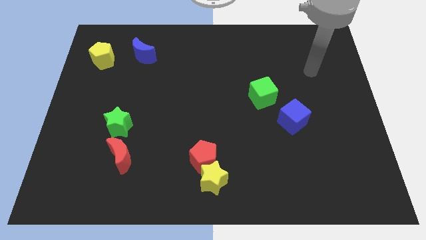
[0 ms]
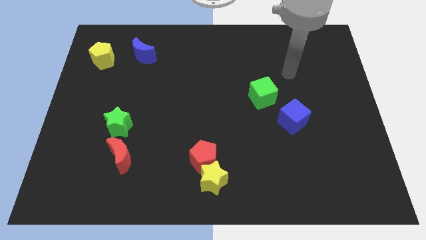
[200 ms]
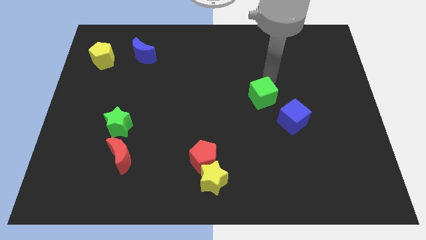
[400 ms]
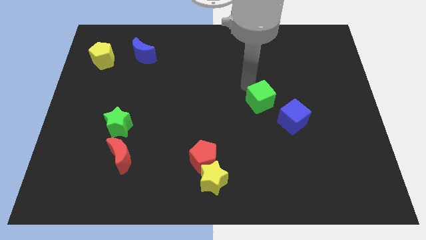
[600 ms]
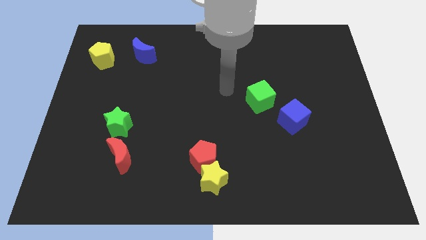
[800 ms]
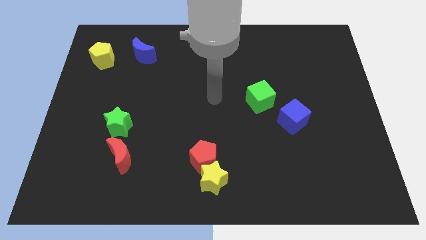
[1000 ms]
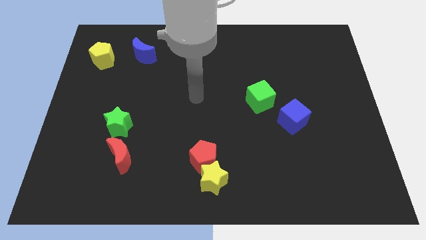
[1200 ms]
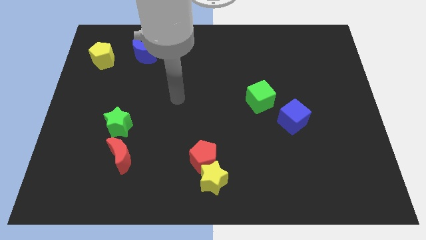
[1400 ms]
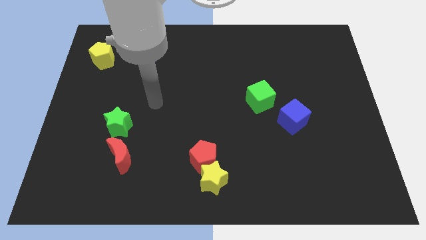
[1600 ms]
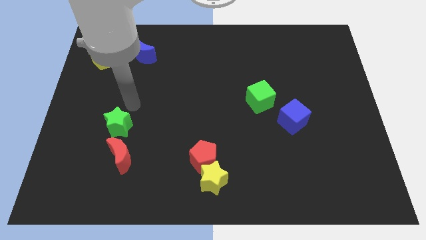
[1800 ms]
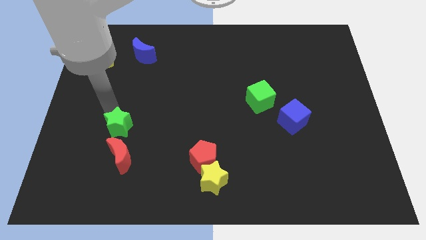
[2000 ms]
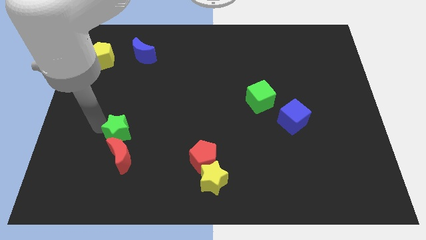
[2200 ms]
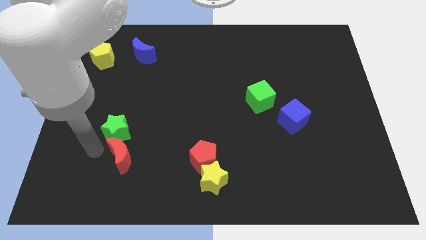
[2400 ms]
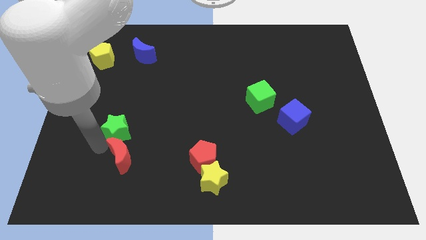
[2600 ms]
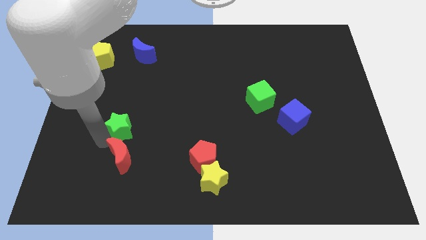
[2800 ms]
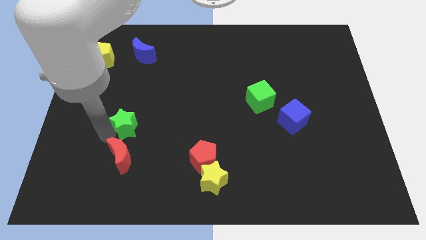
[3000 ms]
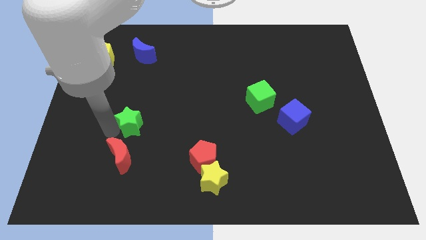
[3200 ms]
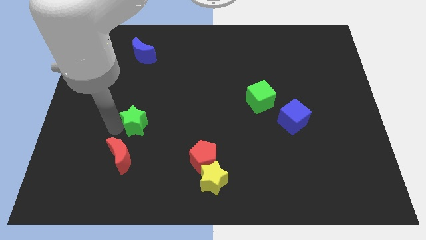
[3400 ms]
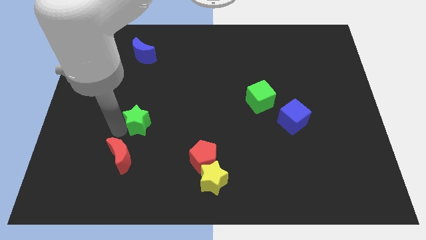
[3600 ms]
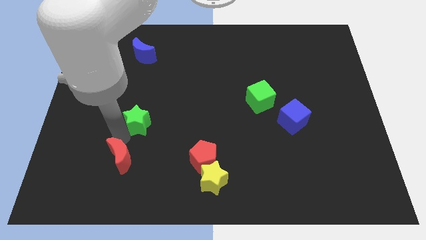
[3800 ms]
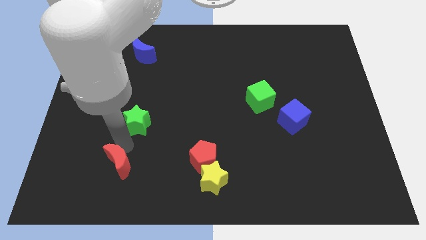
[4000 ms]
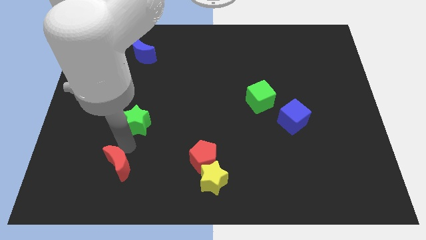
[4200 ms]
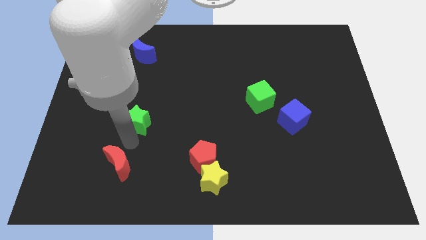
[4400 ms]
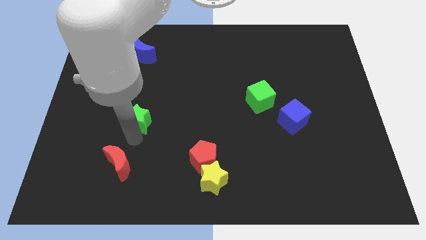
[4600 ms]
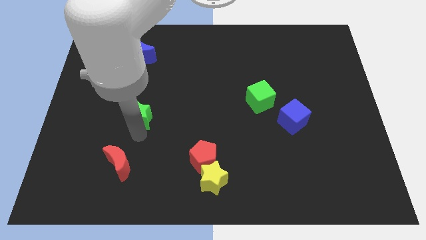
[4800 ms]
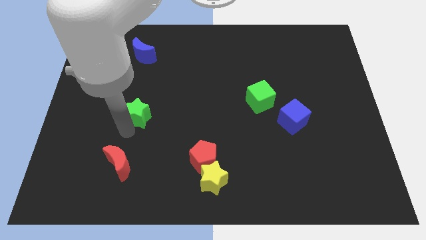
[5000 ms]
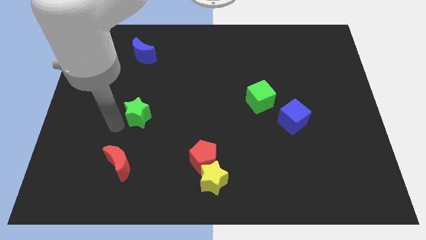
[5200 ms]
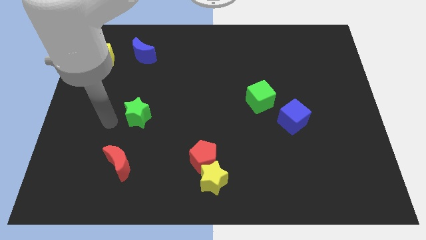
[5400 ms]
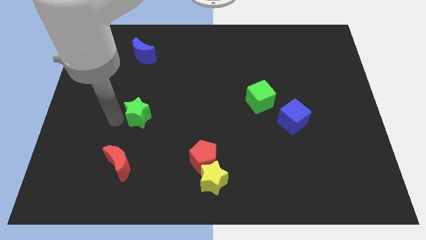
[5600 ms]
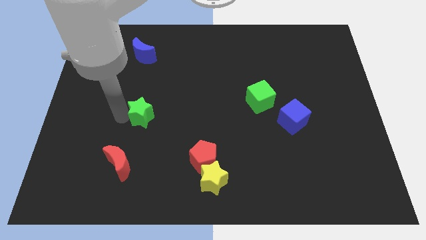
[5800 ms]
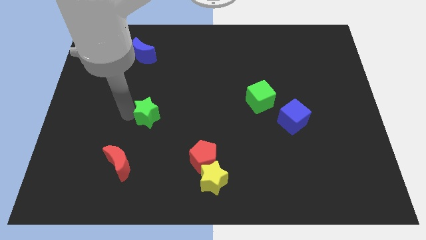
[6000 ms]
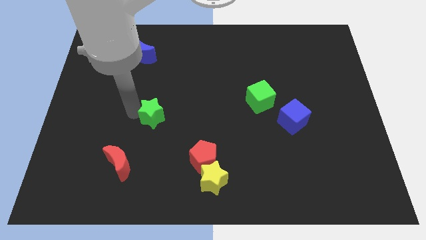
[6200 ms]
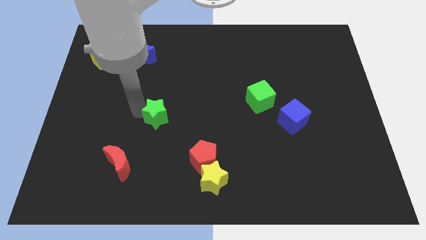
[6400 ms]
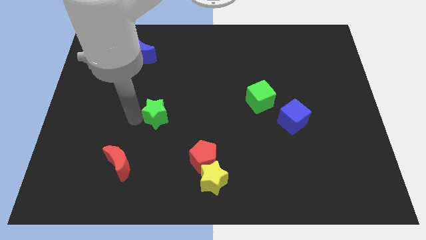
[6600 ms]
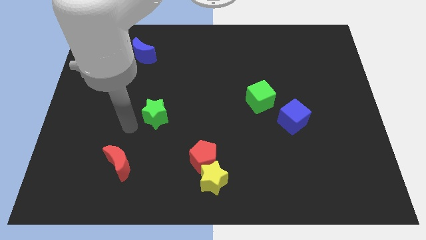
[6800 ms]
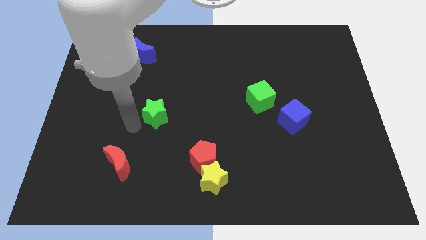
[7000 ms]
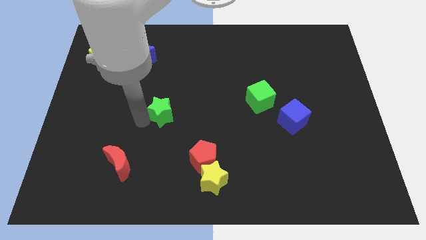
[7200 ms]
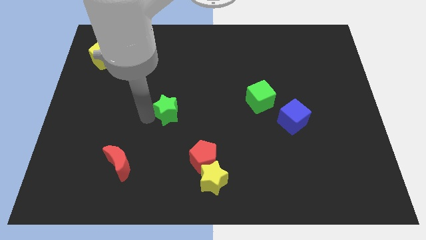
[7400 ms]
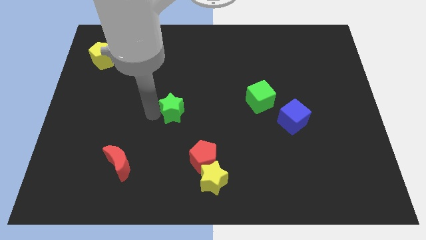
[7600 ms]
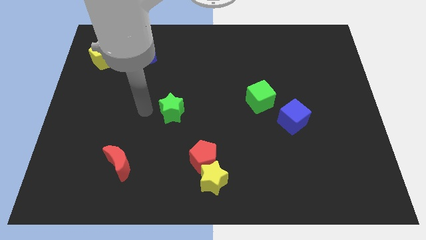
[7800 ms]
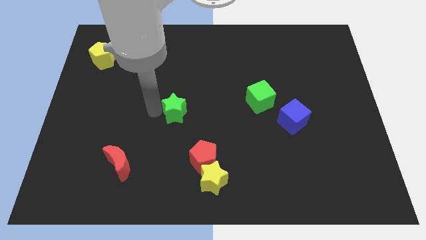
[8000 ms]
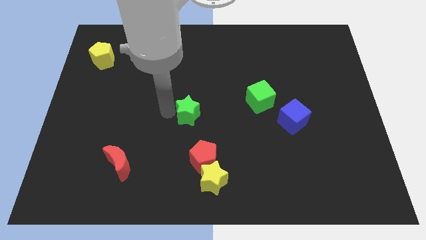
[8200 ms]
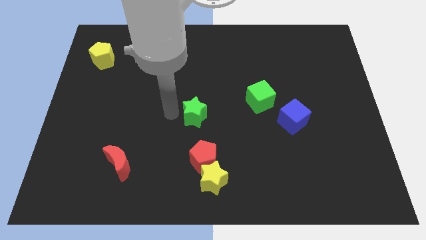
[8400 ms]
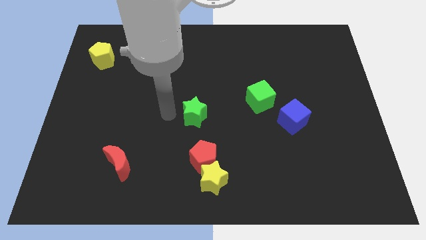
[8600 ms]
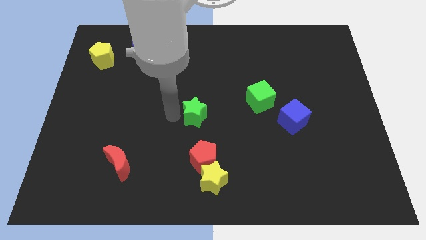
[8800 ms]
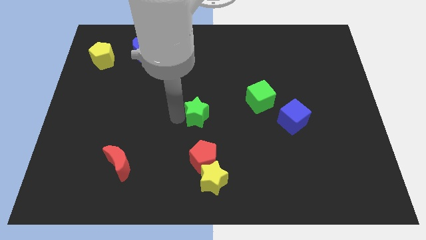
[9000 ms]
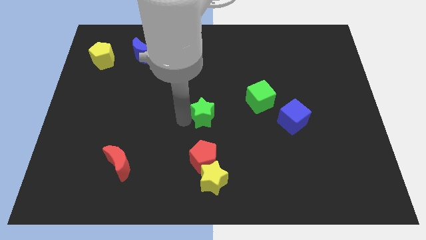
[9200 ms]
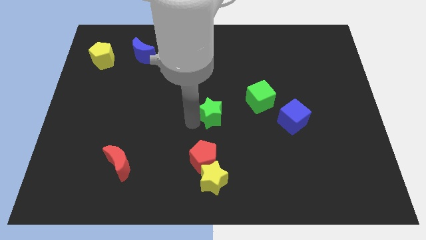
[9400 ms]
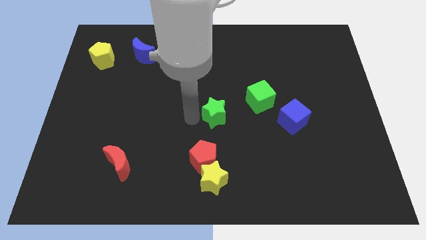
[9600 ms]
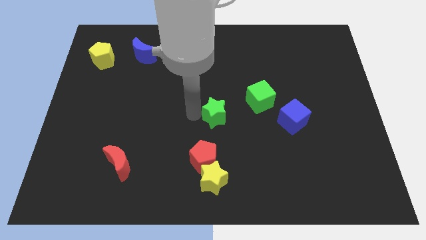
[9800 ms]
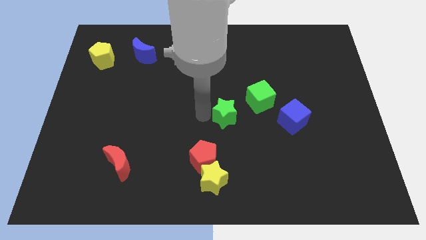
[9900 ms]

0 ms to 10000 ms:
slide the green star to the left of the blue cube

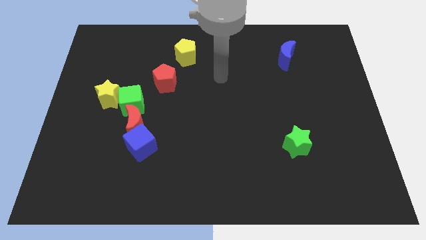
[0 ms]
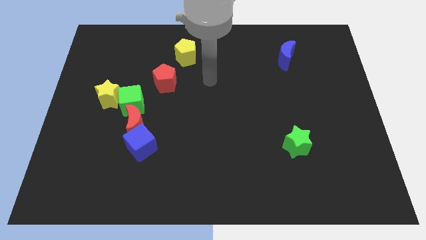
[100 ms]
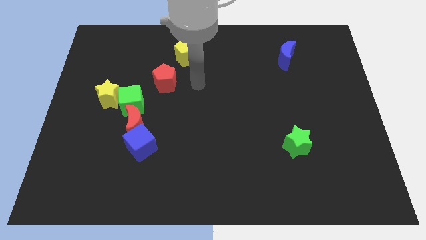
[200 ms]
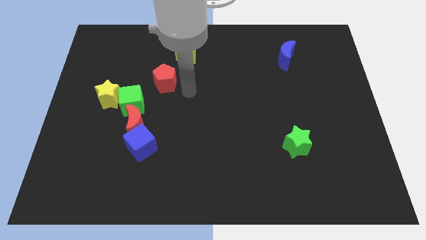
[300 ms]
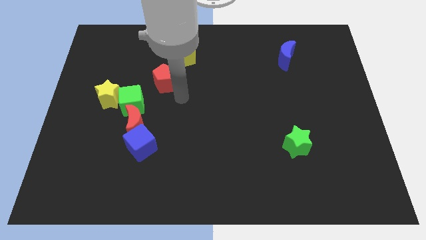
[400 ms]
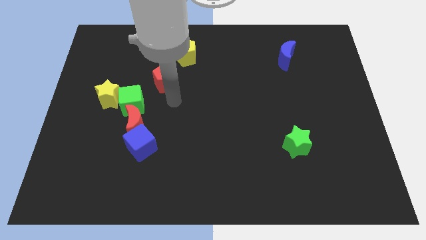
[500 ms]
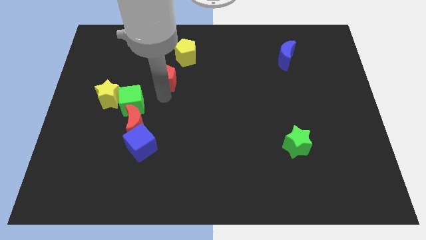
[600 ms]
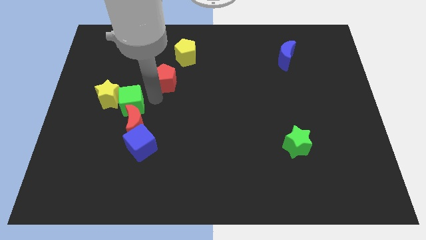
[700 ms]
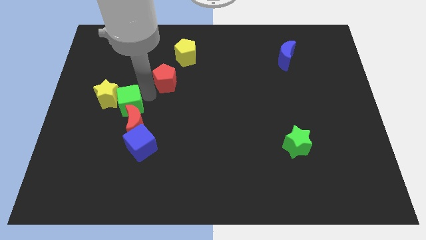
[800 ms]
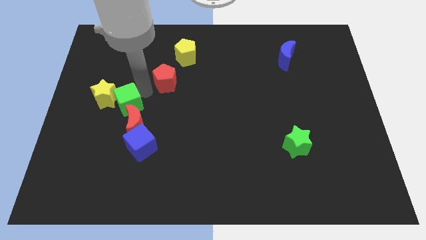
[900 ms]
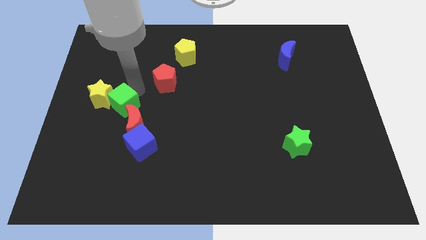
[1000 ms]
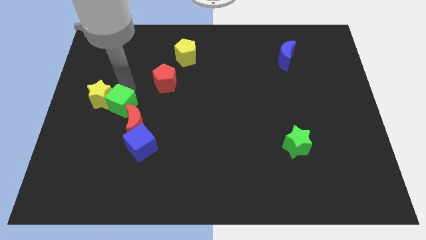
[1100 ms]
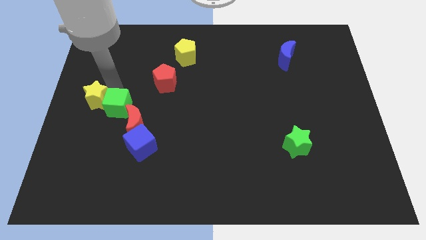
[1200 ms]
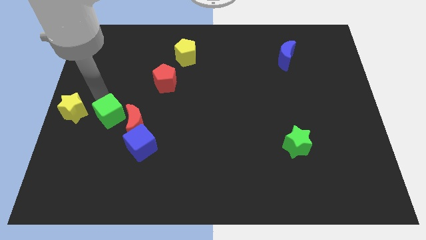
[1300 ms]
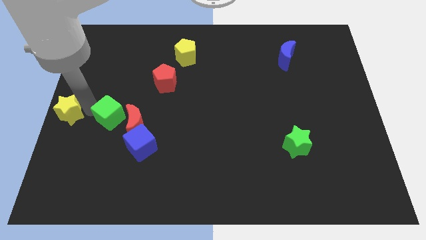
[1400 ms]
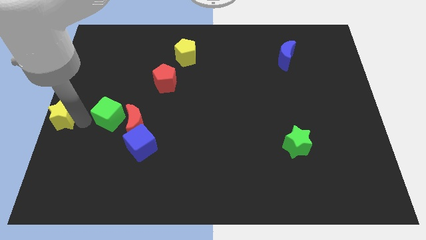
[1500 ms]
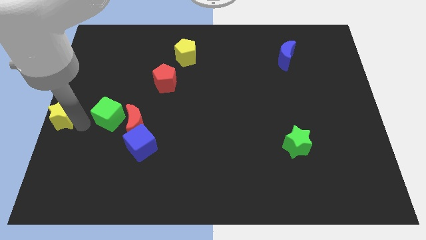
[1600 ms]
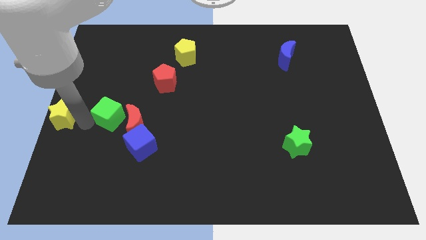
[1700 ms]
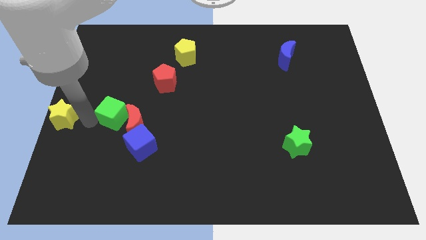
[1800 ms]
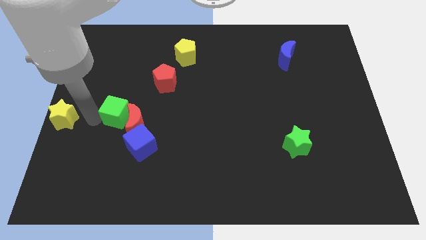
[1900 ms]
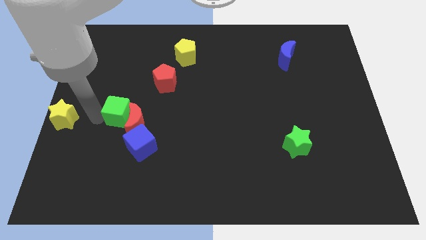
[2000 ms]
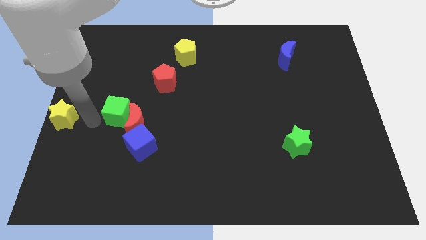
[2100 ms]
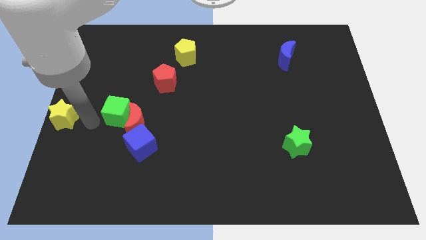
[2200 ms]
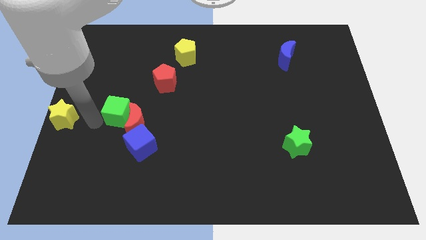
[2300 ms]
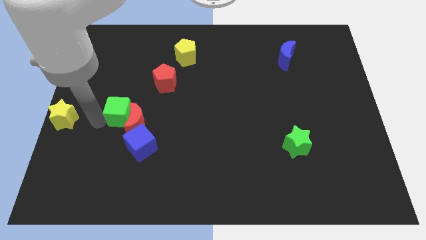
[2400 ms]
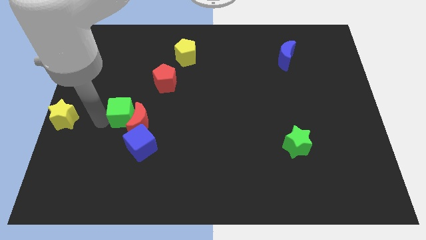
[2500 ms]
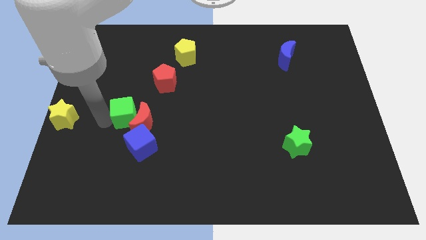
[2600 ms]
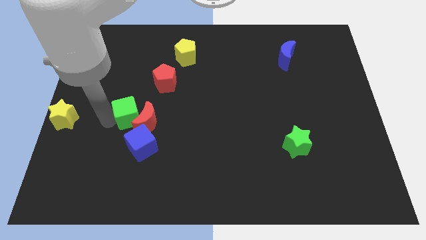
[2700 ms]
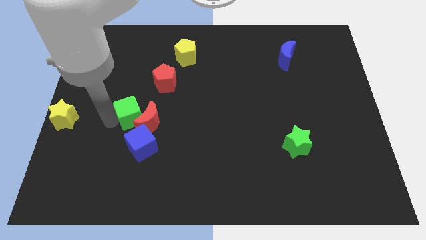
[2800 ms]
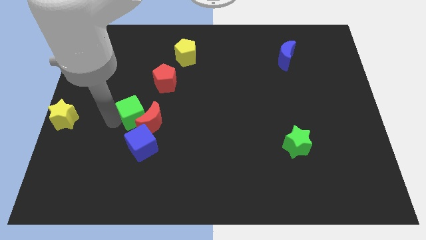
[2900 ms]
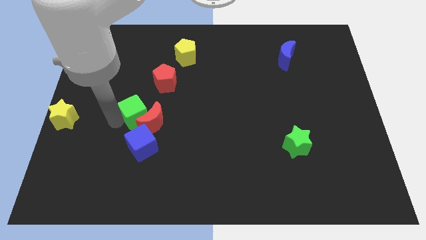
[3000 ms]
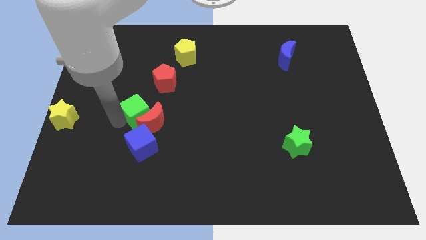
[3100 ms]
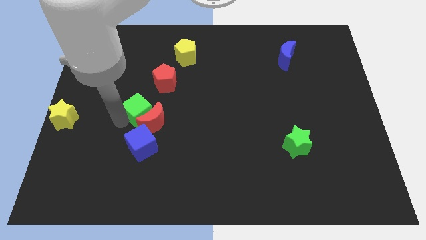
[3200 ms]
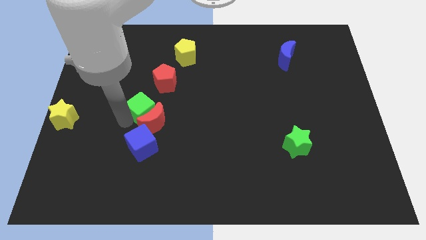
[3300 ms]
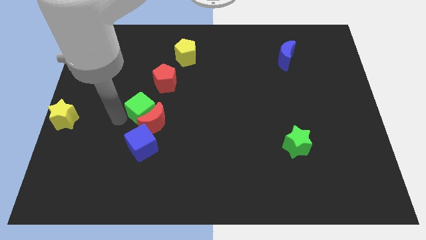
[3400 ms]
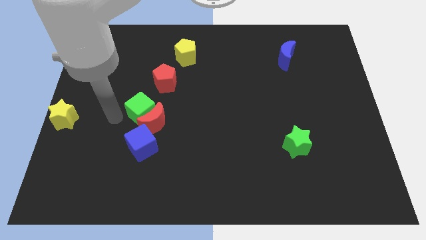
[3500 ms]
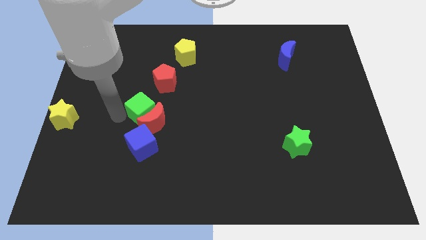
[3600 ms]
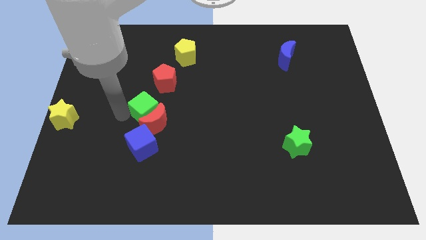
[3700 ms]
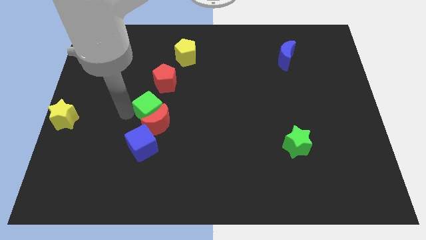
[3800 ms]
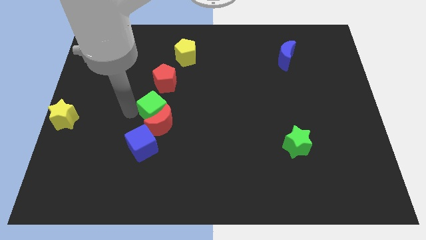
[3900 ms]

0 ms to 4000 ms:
push the green cube to the top right of the red moon
